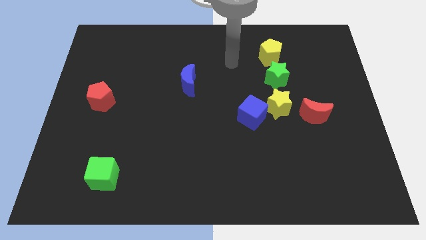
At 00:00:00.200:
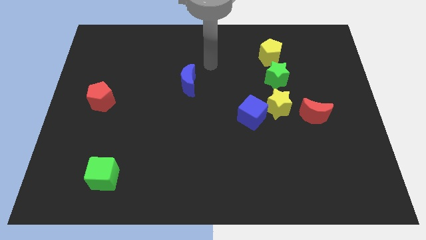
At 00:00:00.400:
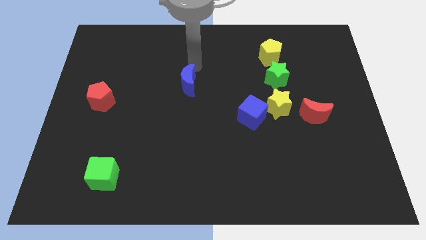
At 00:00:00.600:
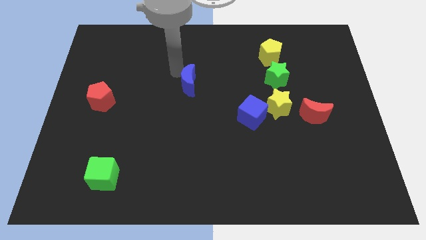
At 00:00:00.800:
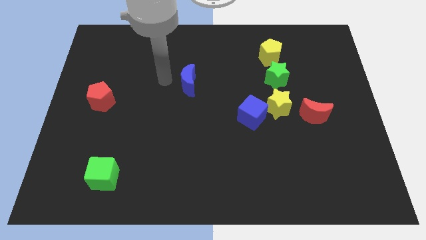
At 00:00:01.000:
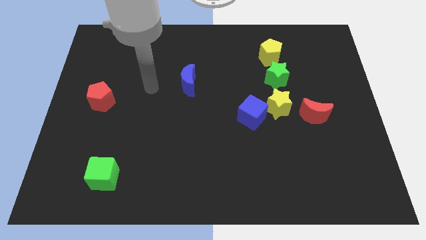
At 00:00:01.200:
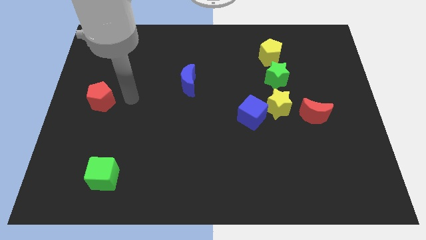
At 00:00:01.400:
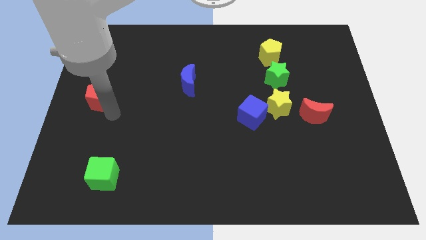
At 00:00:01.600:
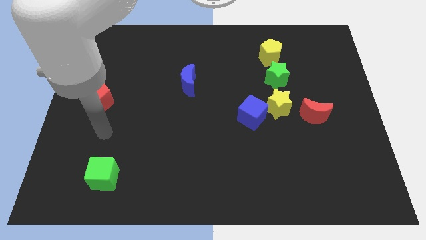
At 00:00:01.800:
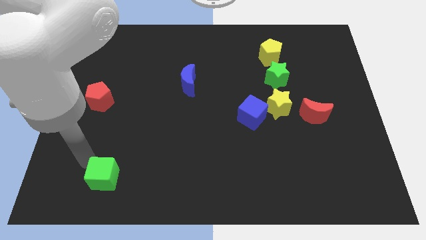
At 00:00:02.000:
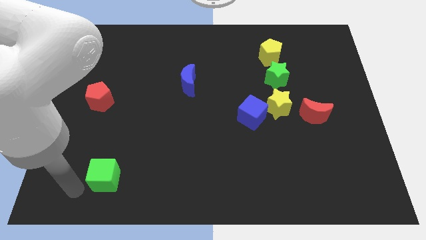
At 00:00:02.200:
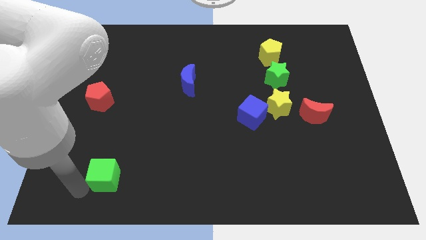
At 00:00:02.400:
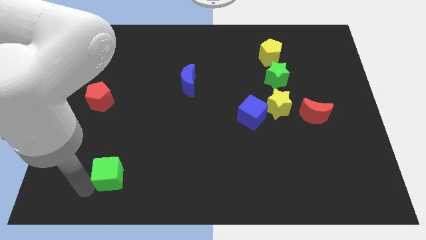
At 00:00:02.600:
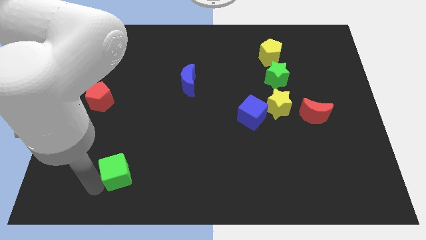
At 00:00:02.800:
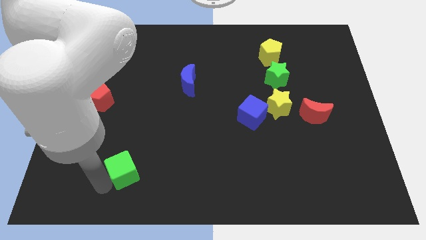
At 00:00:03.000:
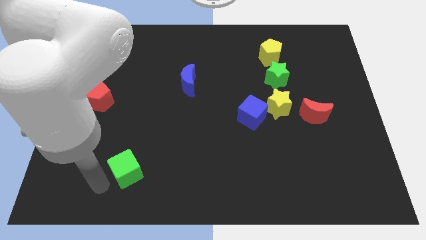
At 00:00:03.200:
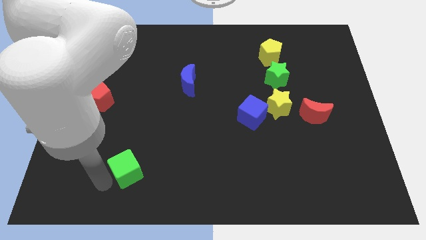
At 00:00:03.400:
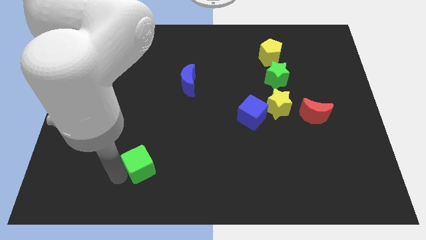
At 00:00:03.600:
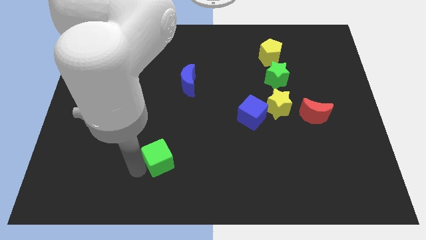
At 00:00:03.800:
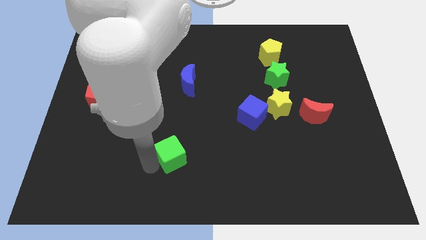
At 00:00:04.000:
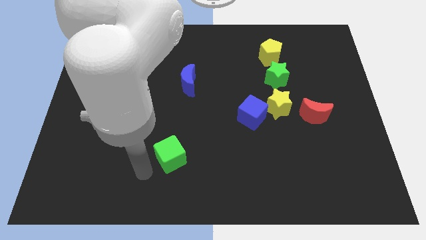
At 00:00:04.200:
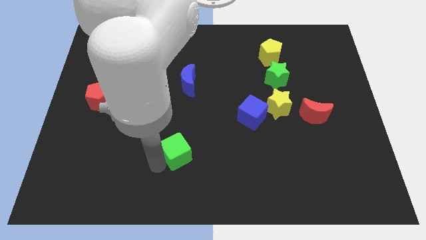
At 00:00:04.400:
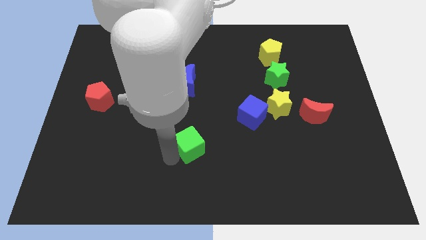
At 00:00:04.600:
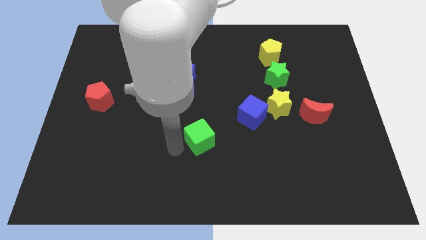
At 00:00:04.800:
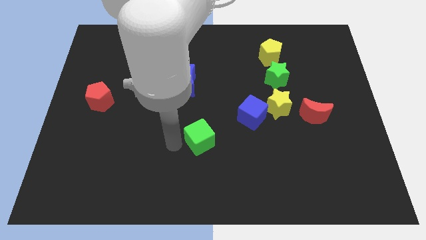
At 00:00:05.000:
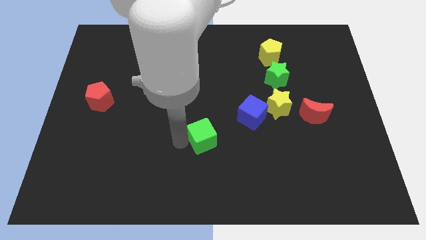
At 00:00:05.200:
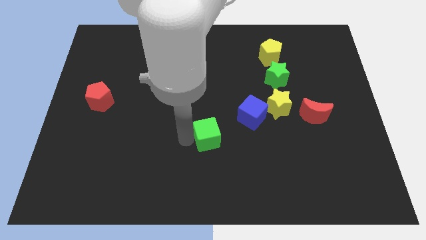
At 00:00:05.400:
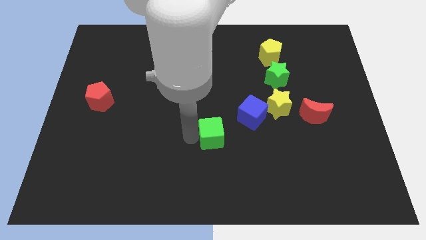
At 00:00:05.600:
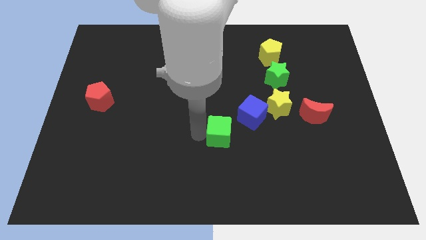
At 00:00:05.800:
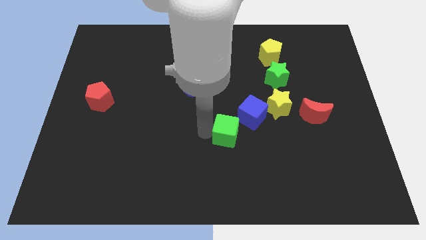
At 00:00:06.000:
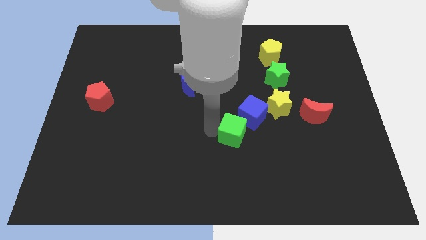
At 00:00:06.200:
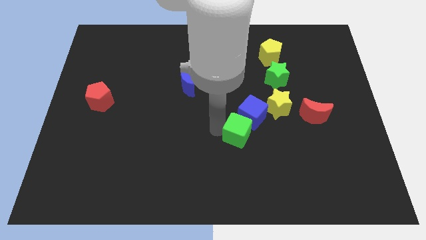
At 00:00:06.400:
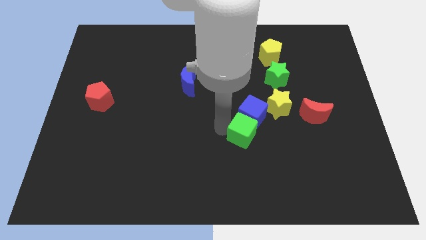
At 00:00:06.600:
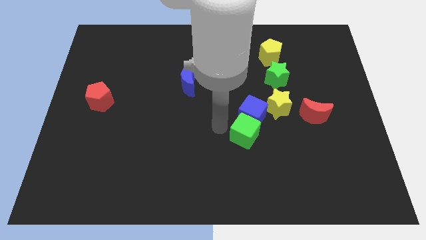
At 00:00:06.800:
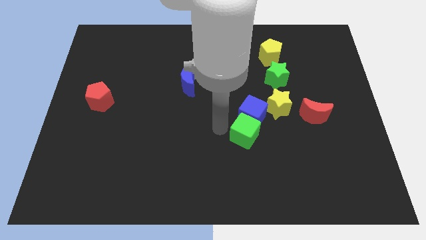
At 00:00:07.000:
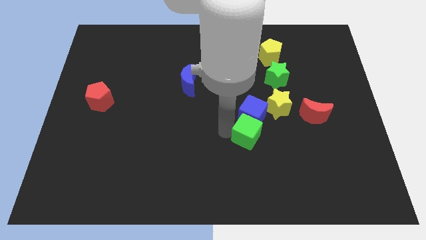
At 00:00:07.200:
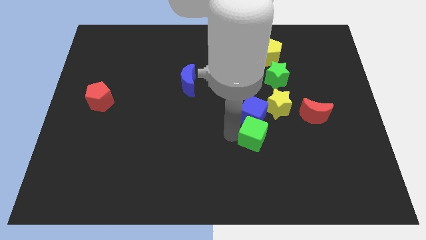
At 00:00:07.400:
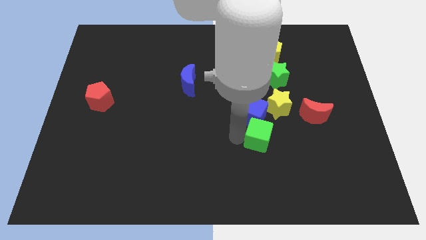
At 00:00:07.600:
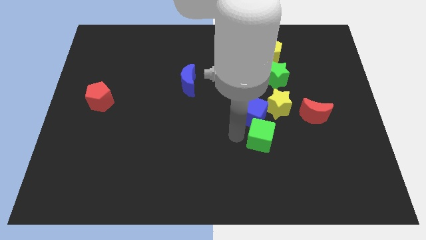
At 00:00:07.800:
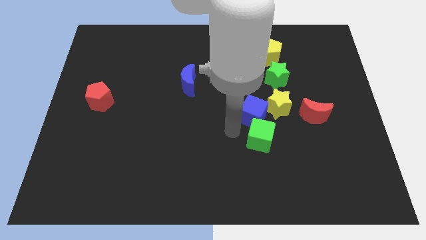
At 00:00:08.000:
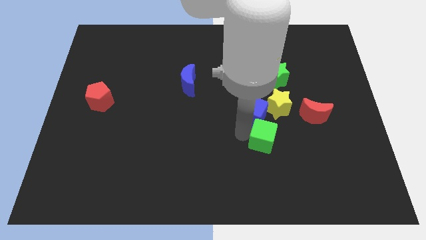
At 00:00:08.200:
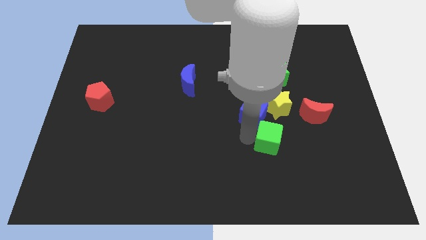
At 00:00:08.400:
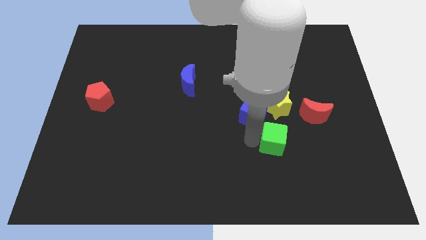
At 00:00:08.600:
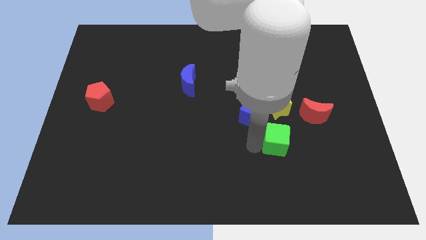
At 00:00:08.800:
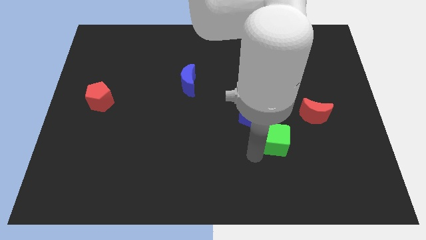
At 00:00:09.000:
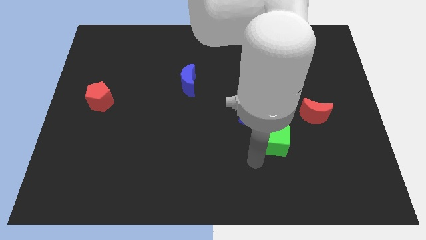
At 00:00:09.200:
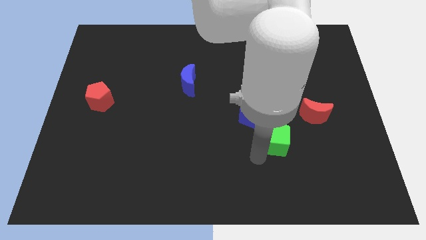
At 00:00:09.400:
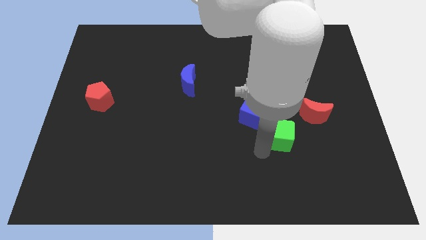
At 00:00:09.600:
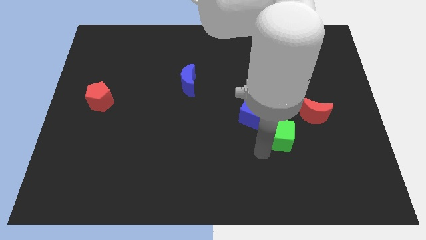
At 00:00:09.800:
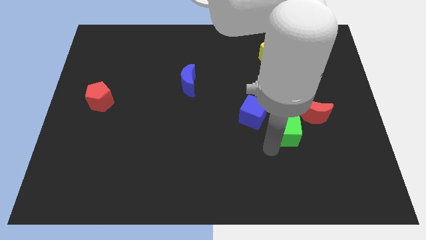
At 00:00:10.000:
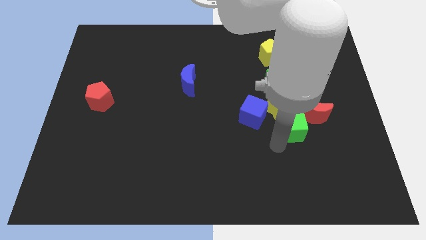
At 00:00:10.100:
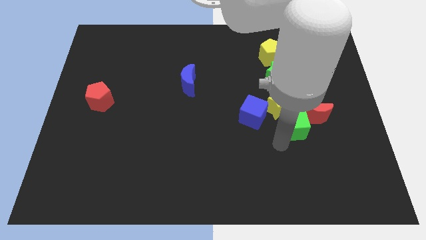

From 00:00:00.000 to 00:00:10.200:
put the green cube towards the red moon

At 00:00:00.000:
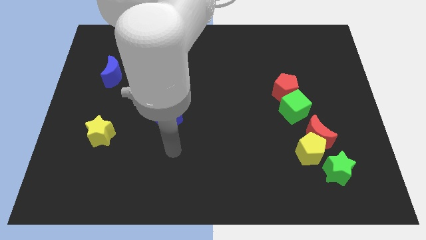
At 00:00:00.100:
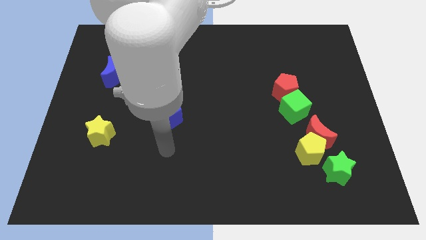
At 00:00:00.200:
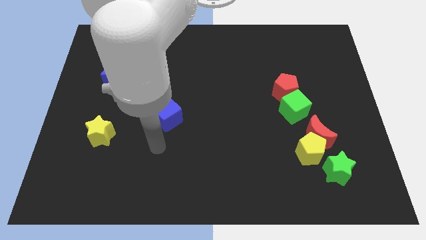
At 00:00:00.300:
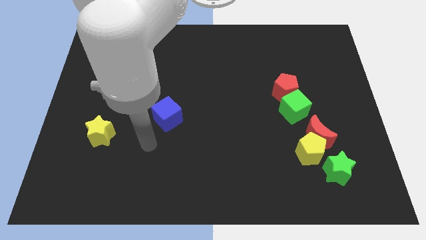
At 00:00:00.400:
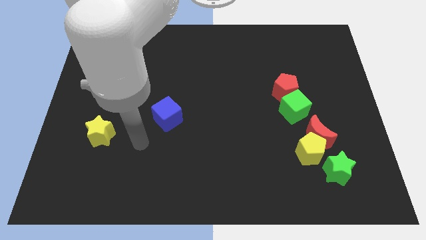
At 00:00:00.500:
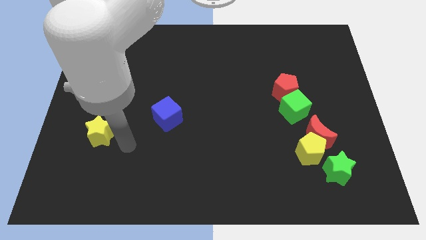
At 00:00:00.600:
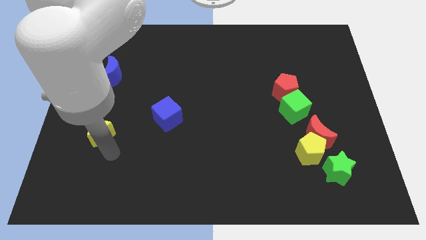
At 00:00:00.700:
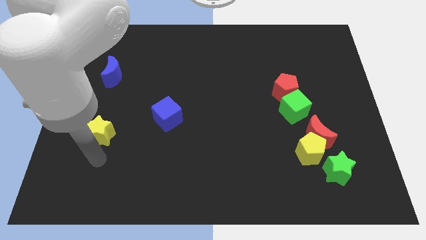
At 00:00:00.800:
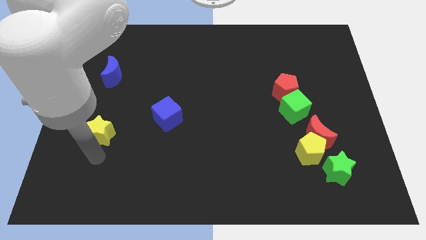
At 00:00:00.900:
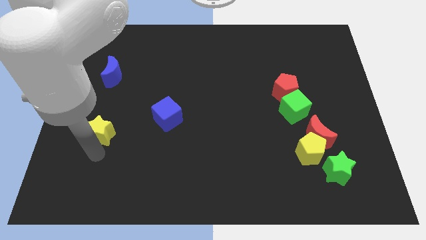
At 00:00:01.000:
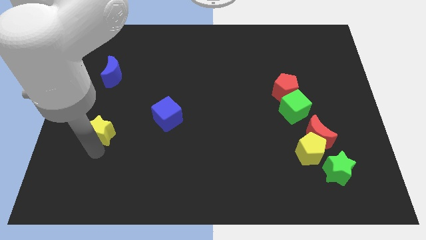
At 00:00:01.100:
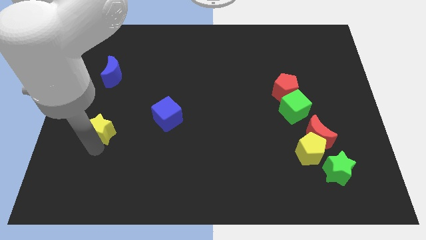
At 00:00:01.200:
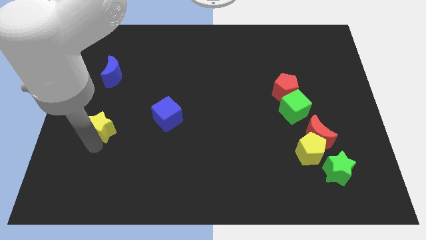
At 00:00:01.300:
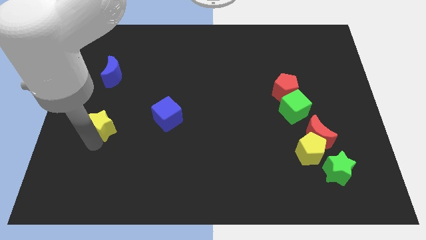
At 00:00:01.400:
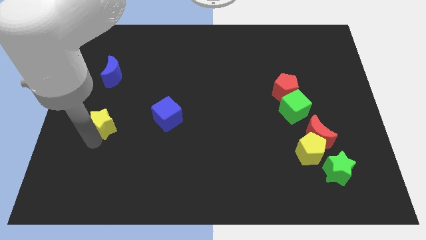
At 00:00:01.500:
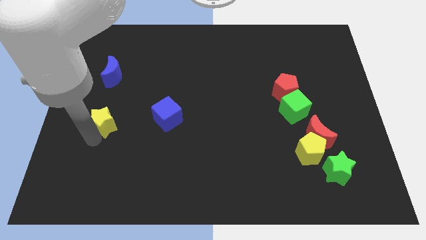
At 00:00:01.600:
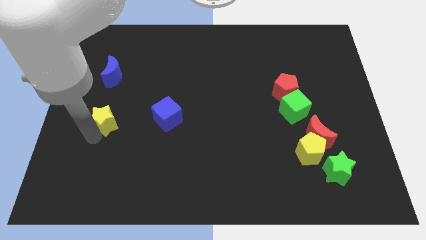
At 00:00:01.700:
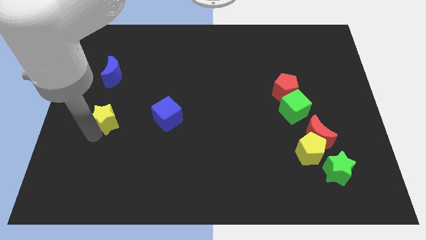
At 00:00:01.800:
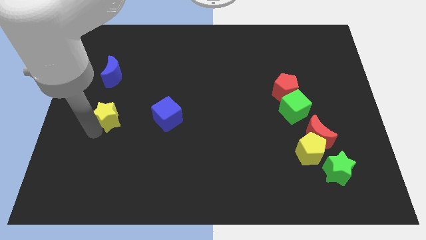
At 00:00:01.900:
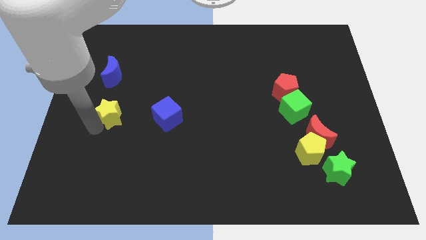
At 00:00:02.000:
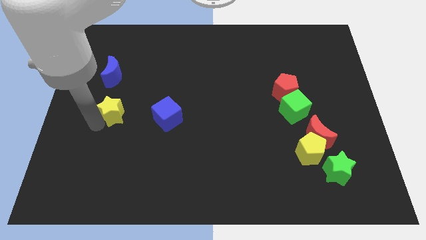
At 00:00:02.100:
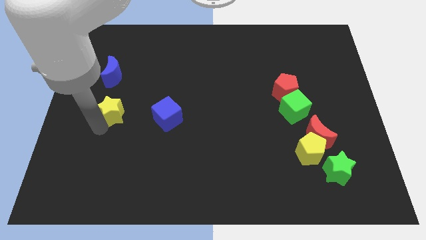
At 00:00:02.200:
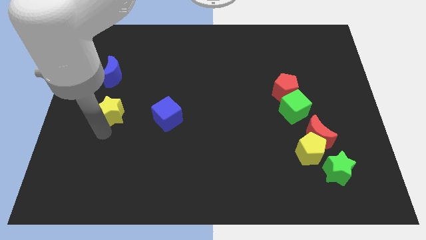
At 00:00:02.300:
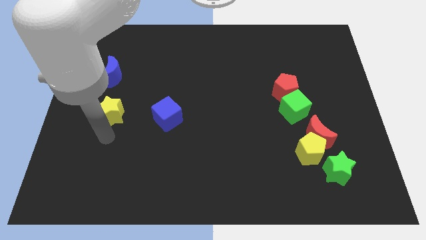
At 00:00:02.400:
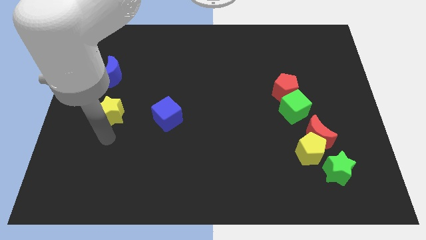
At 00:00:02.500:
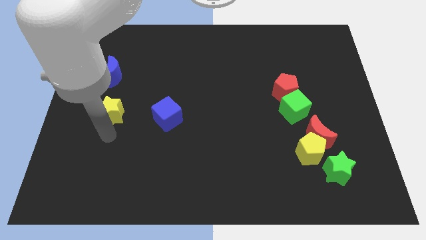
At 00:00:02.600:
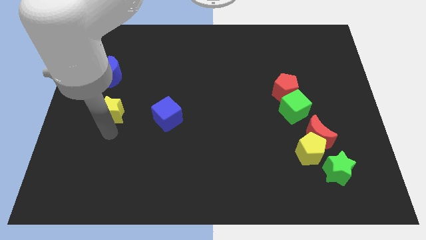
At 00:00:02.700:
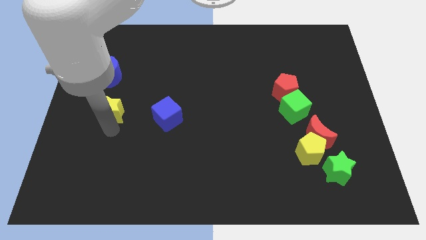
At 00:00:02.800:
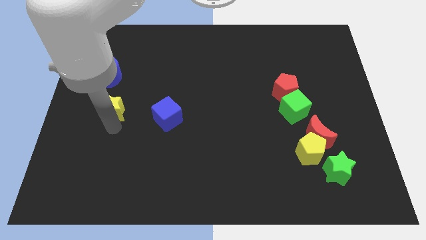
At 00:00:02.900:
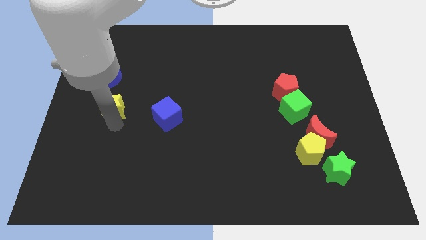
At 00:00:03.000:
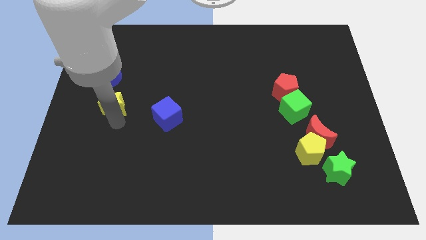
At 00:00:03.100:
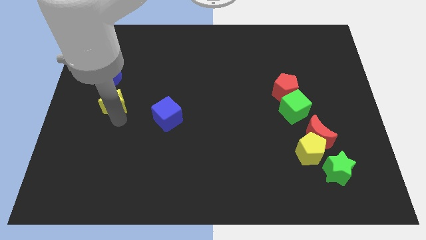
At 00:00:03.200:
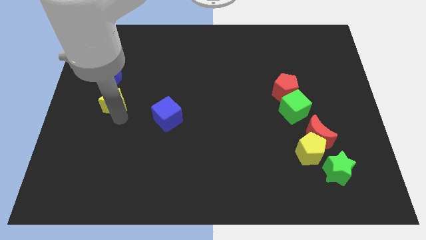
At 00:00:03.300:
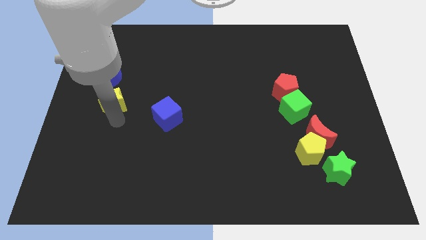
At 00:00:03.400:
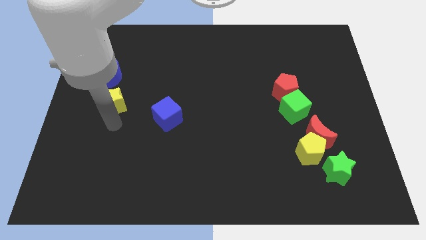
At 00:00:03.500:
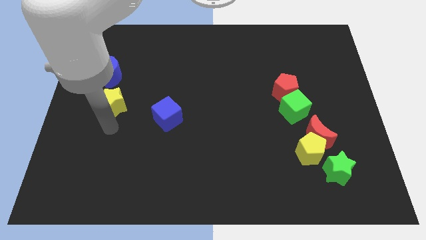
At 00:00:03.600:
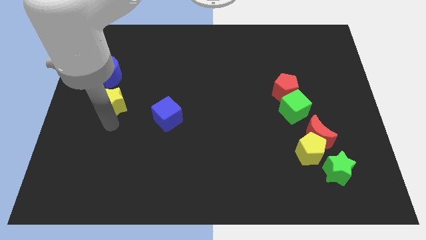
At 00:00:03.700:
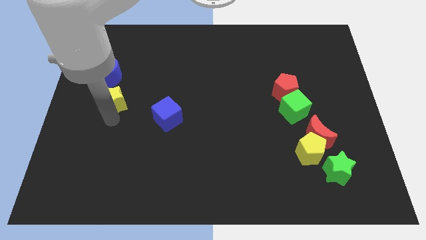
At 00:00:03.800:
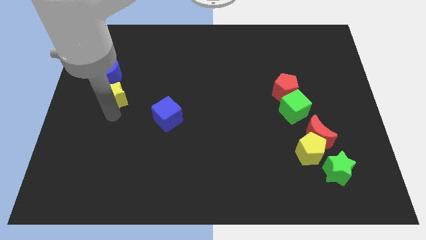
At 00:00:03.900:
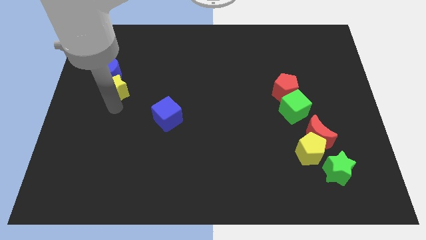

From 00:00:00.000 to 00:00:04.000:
push the yellow star next to the blue moon
